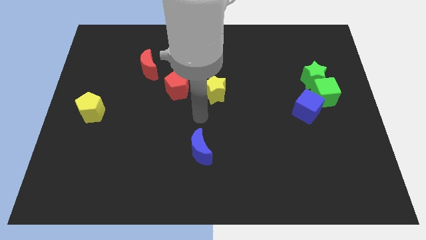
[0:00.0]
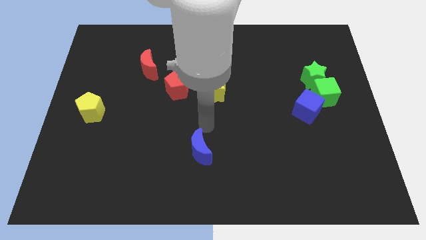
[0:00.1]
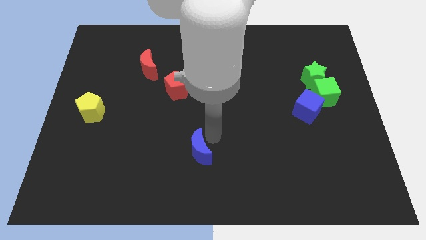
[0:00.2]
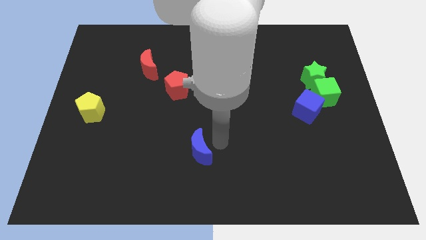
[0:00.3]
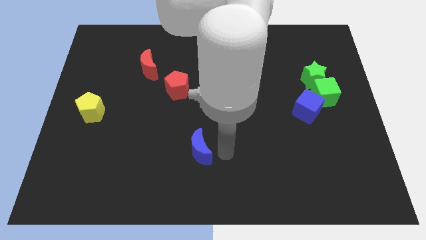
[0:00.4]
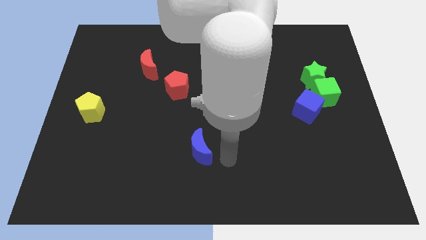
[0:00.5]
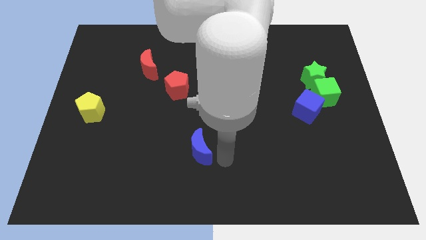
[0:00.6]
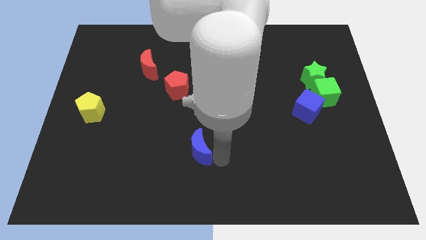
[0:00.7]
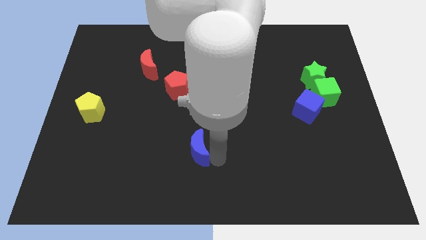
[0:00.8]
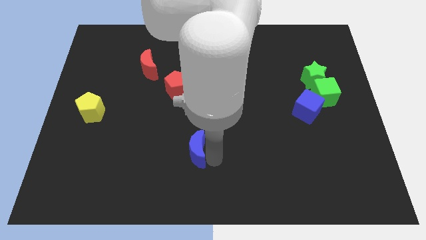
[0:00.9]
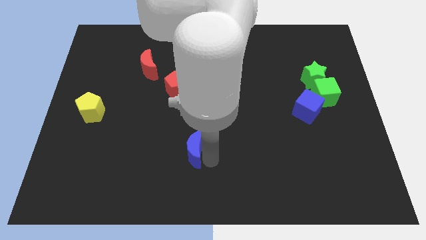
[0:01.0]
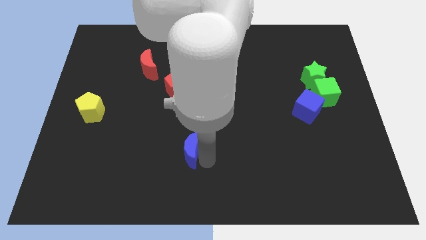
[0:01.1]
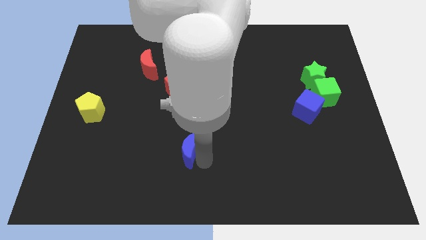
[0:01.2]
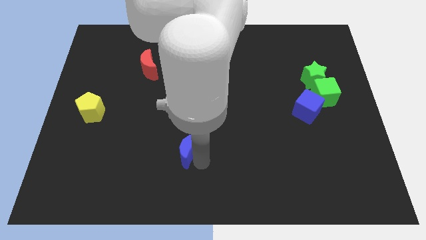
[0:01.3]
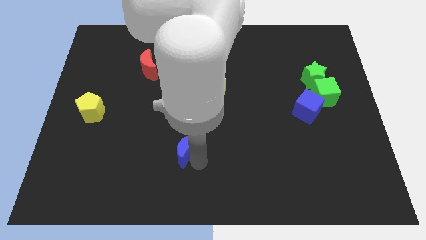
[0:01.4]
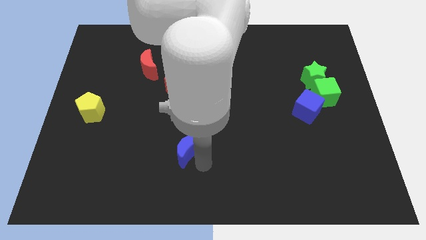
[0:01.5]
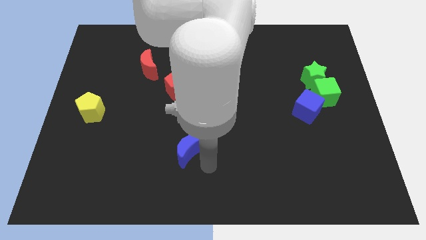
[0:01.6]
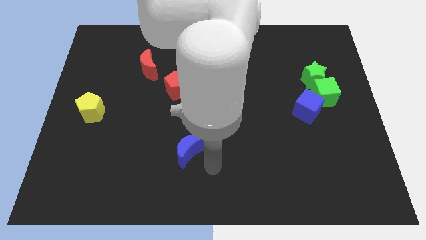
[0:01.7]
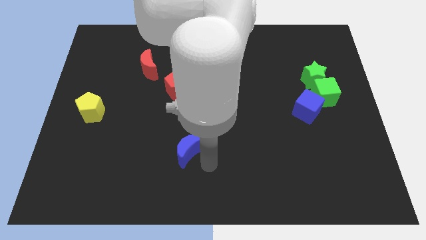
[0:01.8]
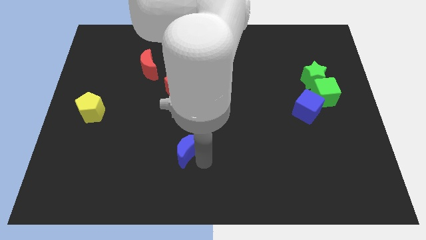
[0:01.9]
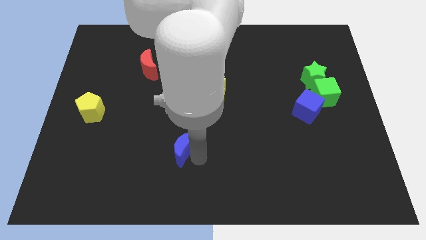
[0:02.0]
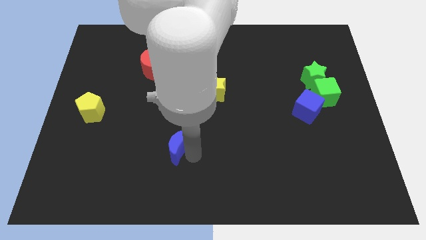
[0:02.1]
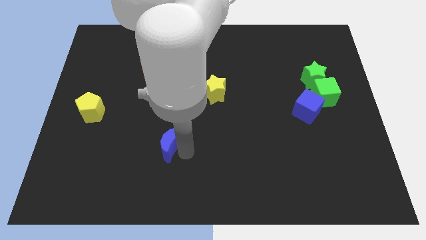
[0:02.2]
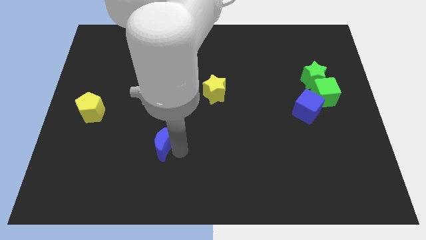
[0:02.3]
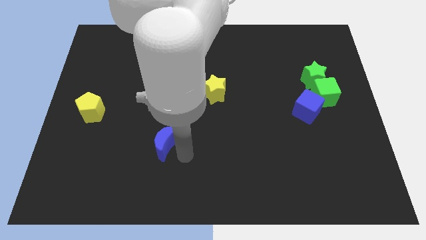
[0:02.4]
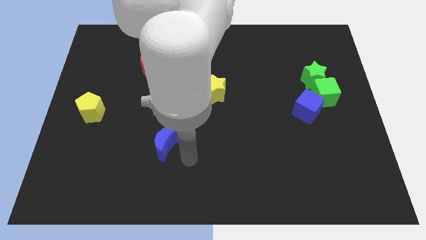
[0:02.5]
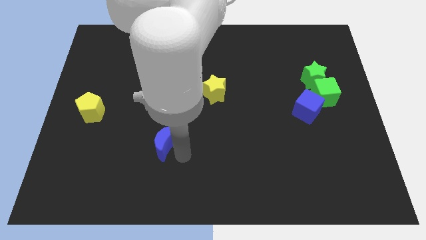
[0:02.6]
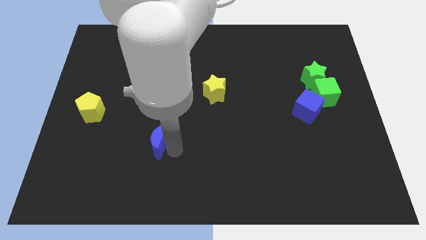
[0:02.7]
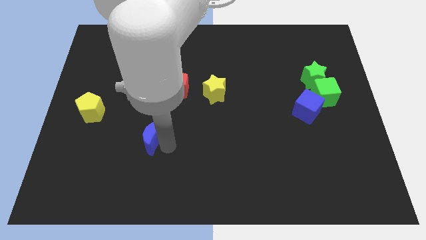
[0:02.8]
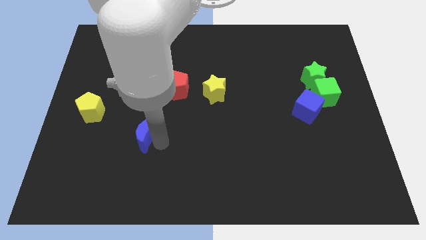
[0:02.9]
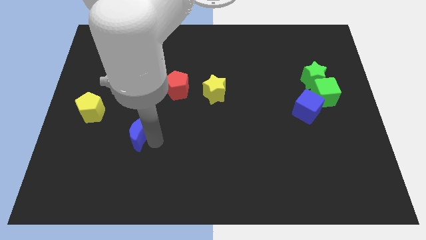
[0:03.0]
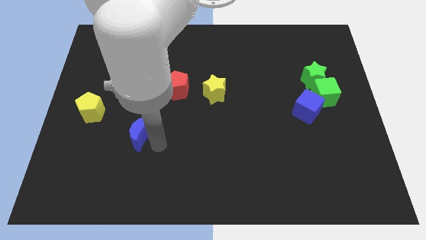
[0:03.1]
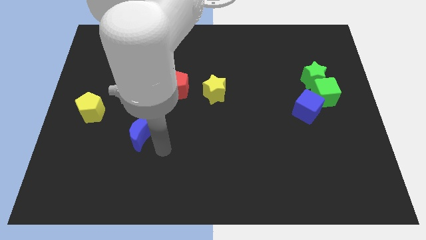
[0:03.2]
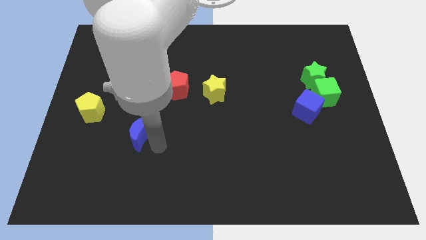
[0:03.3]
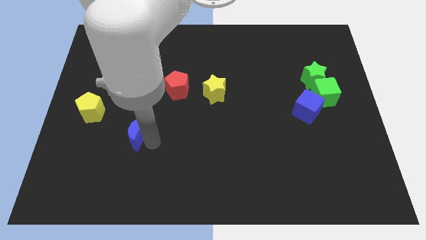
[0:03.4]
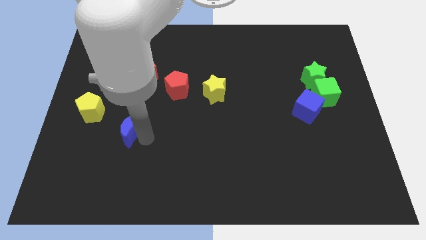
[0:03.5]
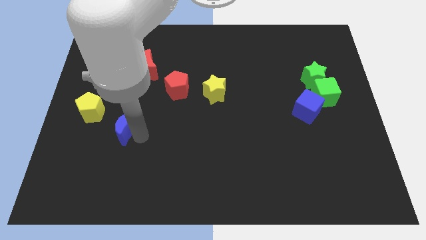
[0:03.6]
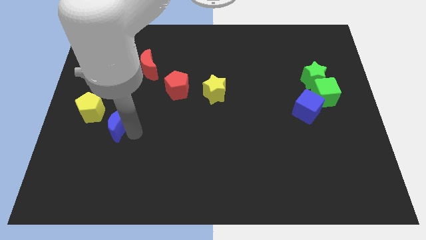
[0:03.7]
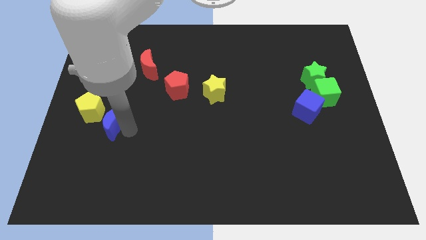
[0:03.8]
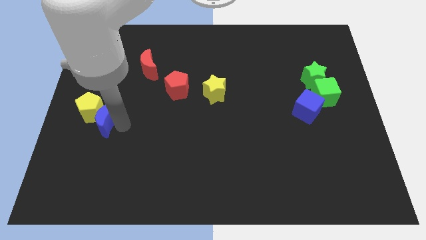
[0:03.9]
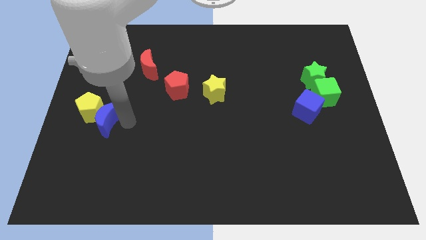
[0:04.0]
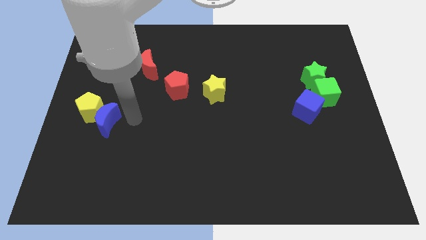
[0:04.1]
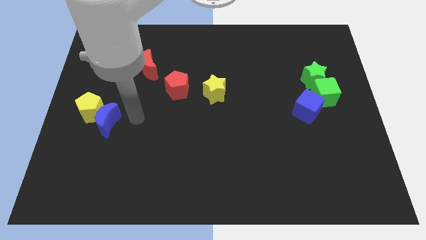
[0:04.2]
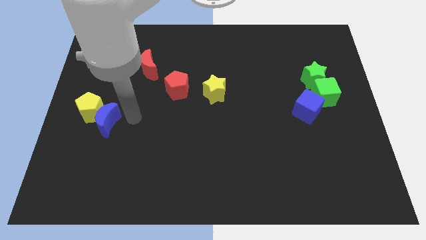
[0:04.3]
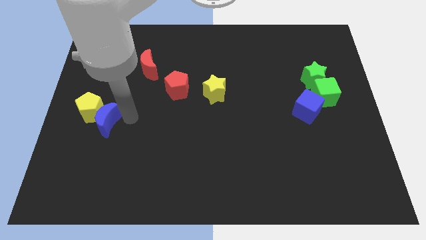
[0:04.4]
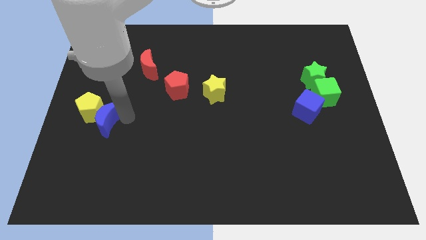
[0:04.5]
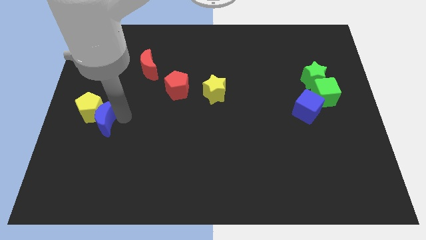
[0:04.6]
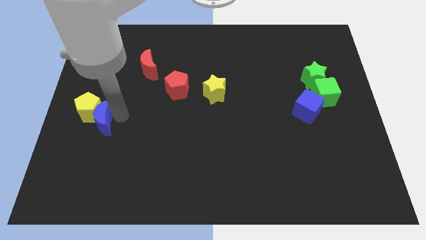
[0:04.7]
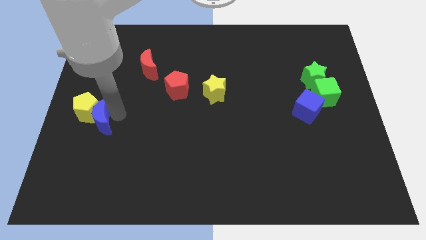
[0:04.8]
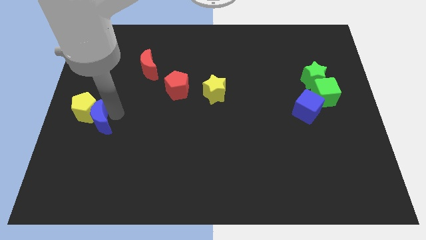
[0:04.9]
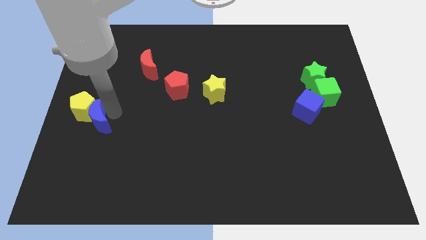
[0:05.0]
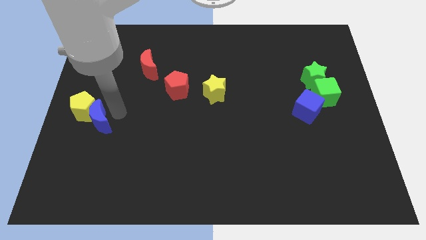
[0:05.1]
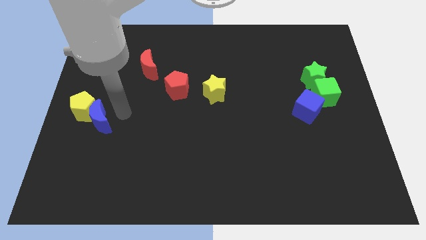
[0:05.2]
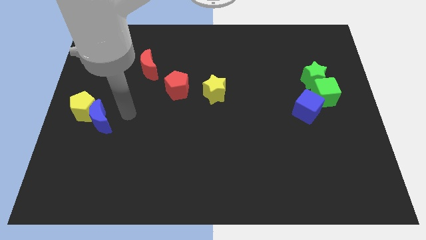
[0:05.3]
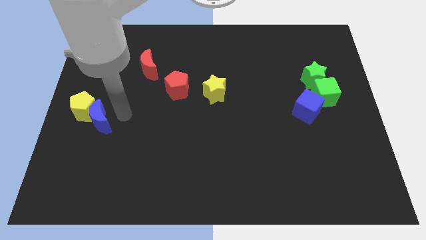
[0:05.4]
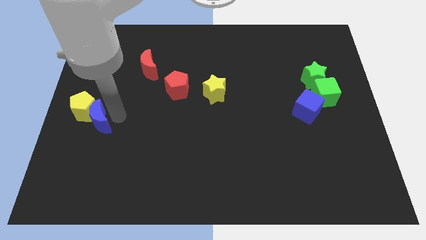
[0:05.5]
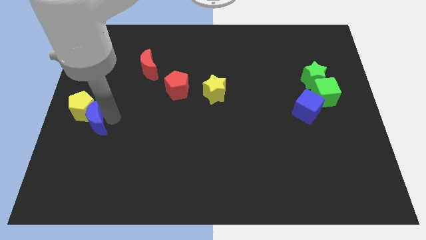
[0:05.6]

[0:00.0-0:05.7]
move the blue moon to the center left

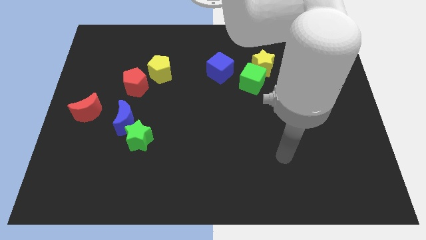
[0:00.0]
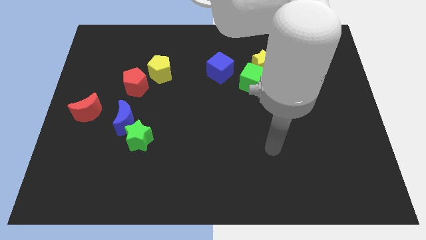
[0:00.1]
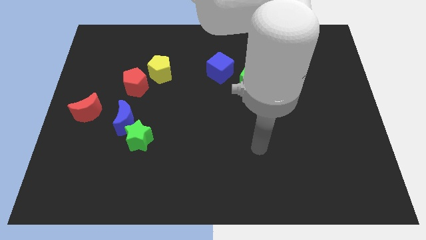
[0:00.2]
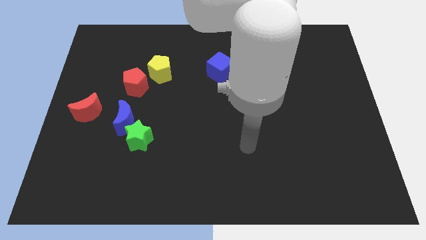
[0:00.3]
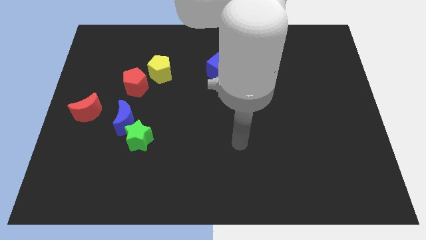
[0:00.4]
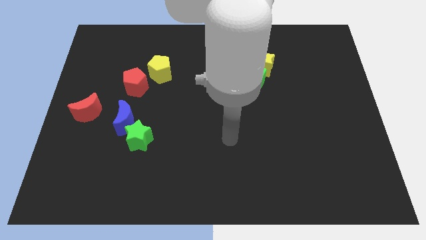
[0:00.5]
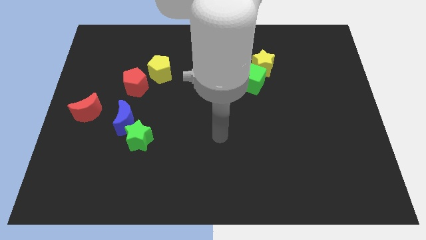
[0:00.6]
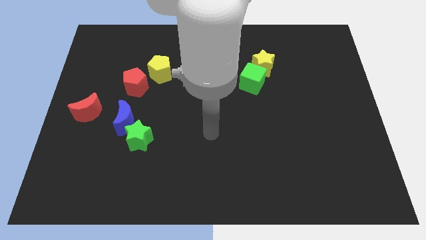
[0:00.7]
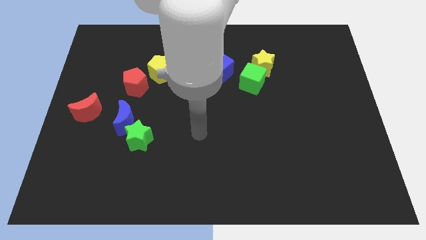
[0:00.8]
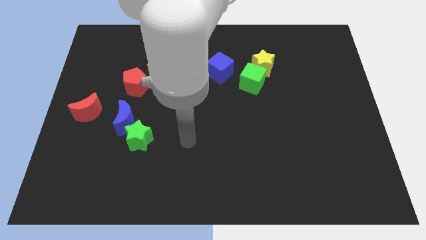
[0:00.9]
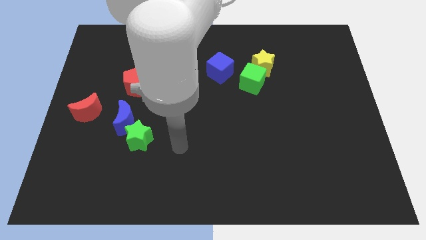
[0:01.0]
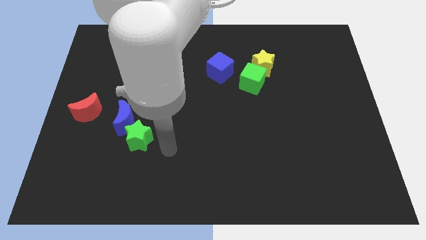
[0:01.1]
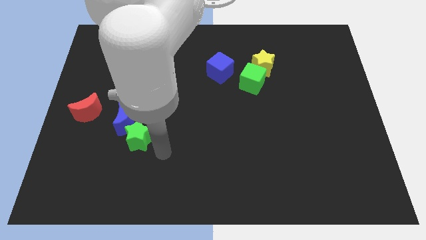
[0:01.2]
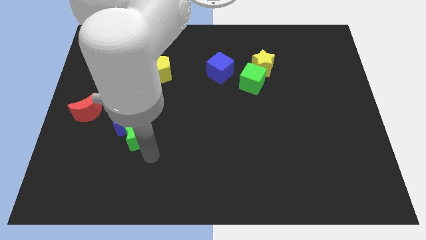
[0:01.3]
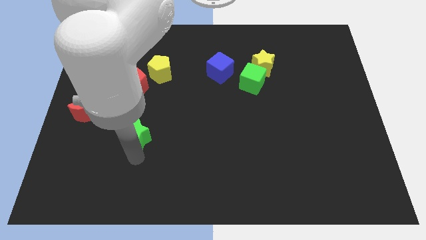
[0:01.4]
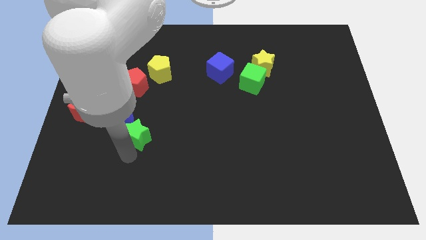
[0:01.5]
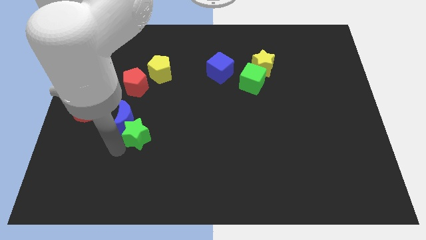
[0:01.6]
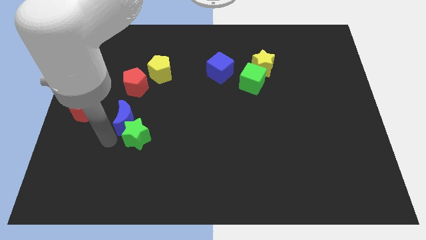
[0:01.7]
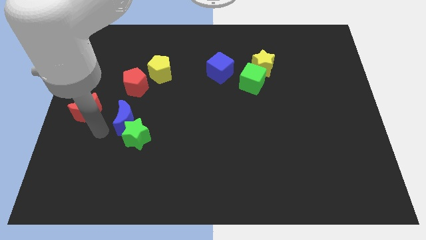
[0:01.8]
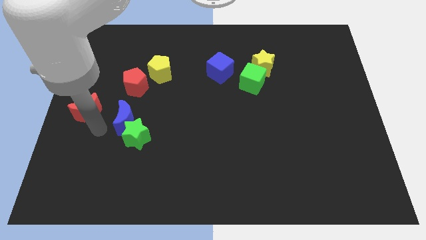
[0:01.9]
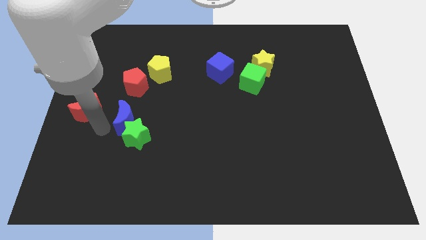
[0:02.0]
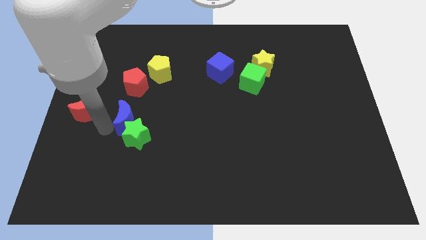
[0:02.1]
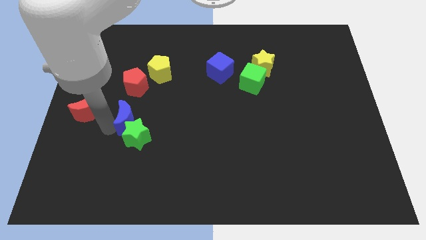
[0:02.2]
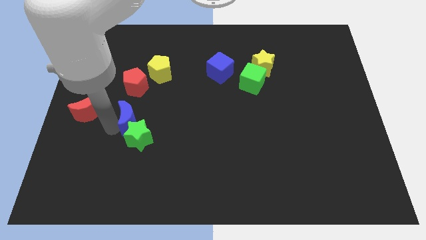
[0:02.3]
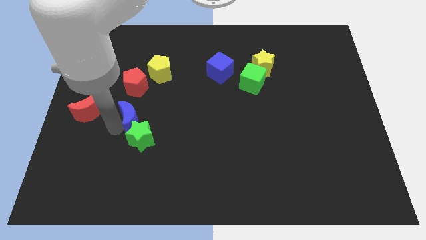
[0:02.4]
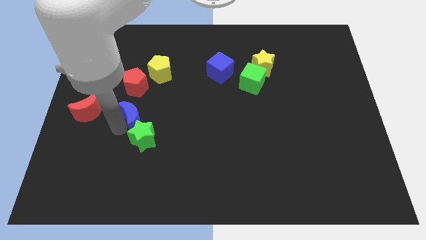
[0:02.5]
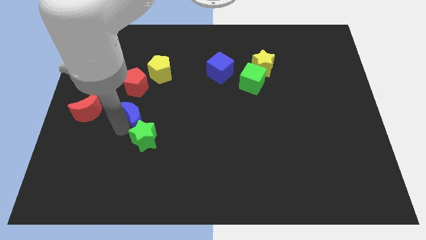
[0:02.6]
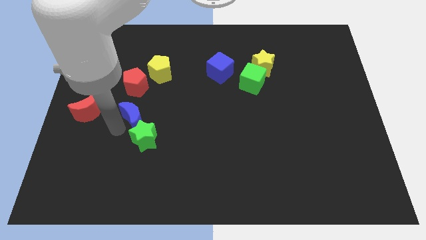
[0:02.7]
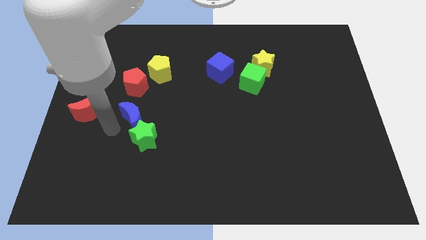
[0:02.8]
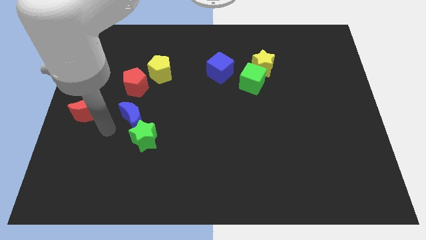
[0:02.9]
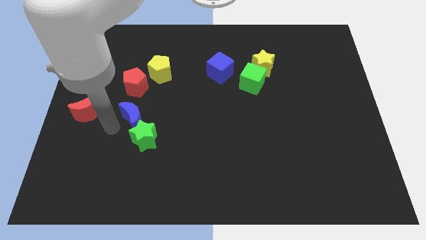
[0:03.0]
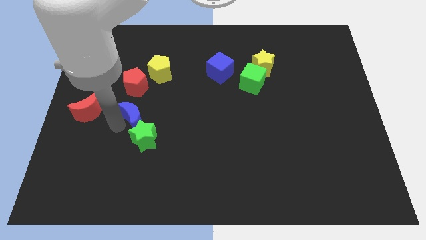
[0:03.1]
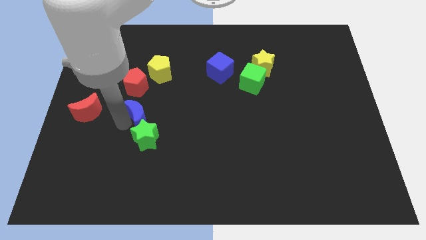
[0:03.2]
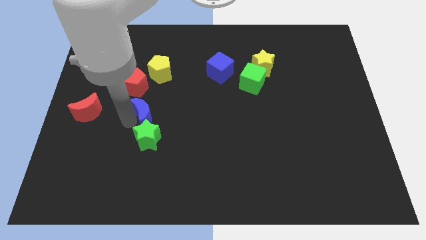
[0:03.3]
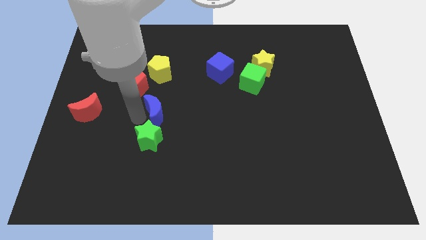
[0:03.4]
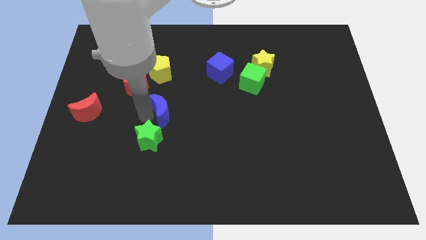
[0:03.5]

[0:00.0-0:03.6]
push the blue moon to the middle
